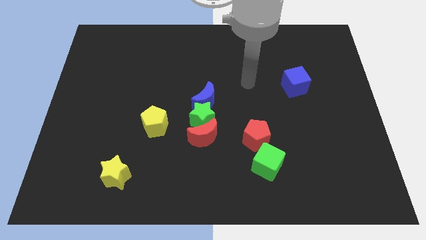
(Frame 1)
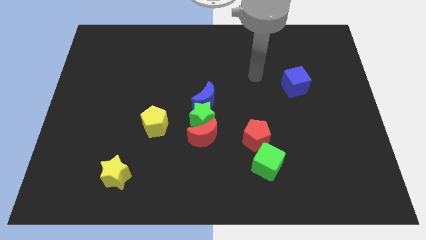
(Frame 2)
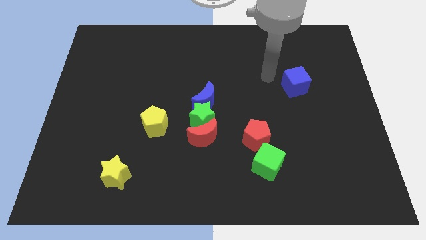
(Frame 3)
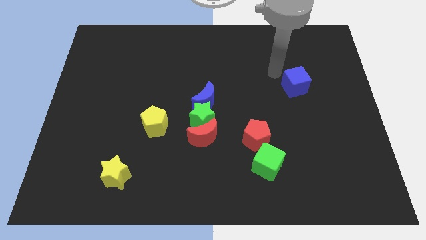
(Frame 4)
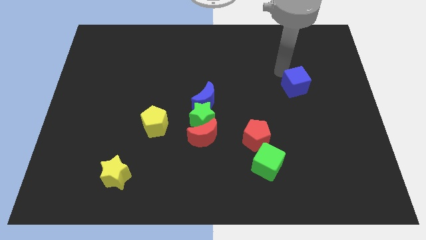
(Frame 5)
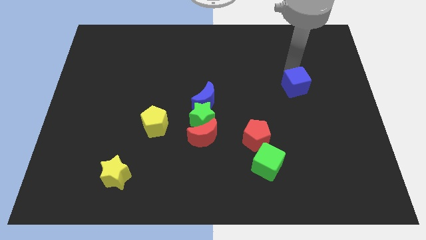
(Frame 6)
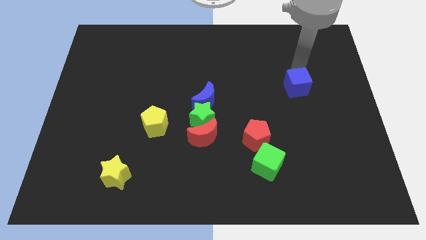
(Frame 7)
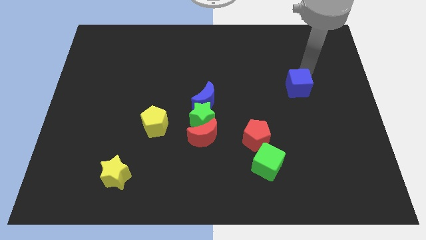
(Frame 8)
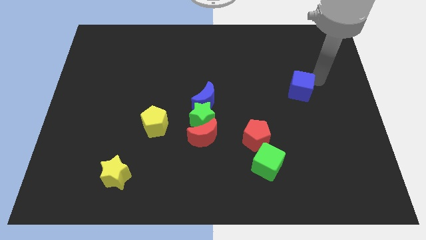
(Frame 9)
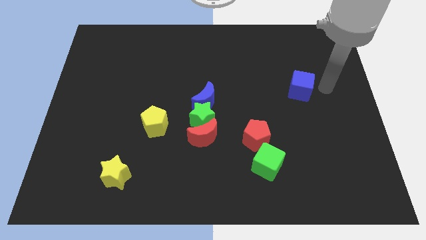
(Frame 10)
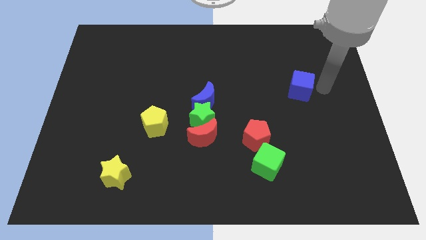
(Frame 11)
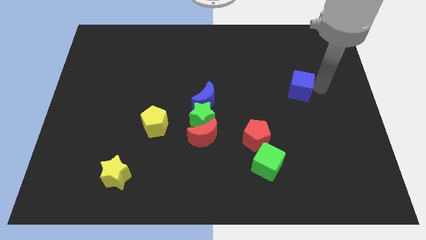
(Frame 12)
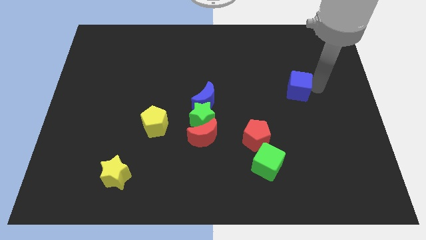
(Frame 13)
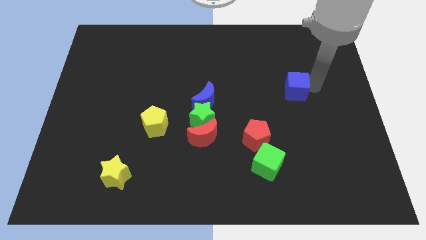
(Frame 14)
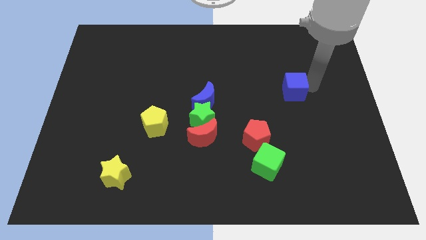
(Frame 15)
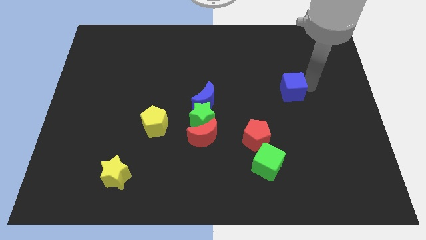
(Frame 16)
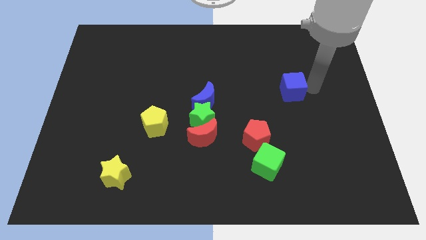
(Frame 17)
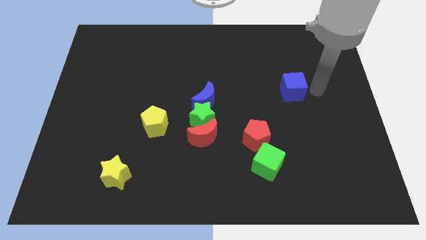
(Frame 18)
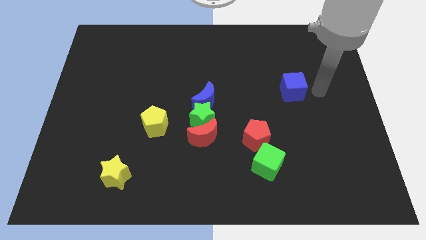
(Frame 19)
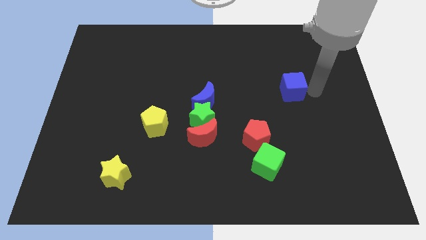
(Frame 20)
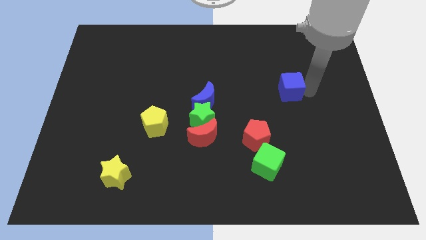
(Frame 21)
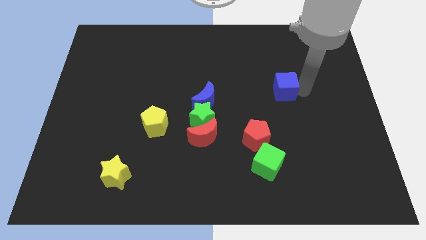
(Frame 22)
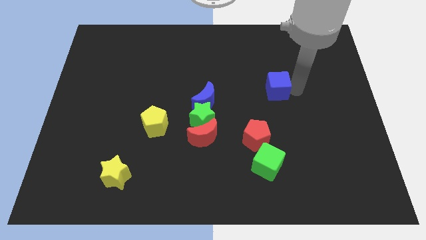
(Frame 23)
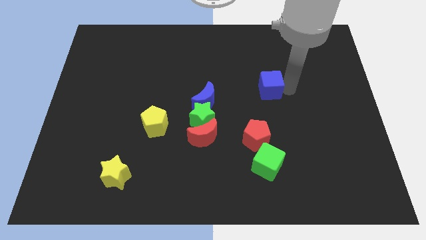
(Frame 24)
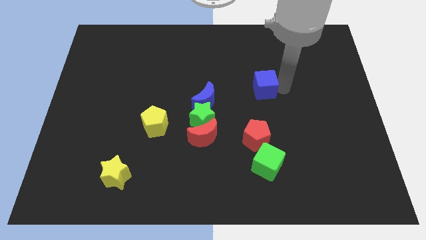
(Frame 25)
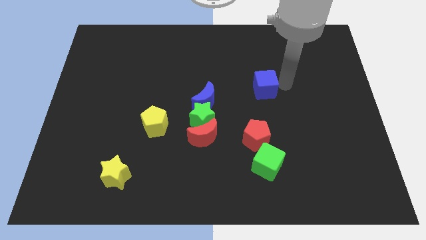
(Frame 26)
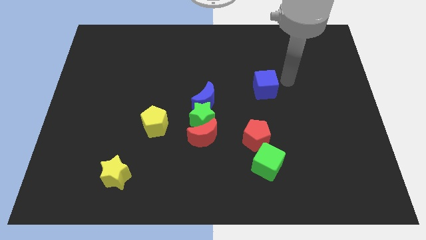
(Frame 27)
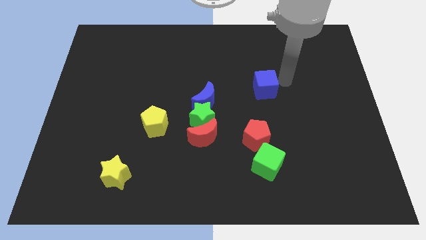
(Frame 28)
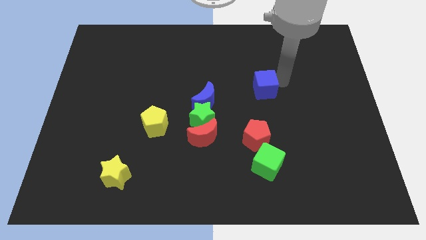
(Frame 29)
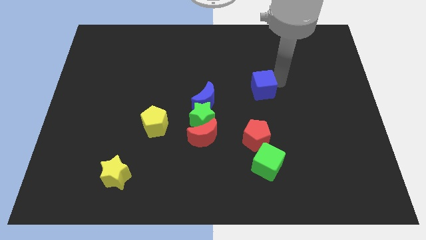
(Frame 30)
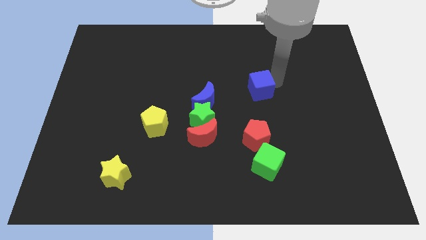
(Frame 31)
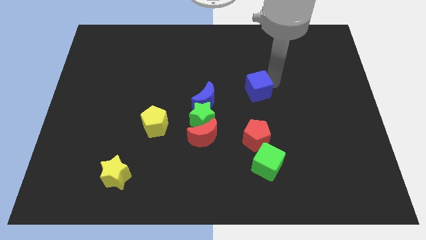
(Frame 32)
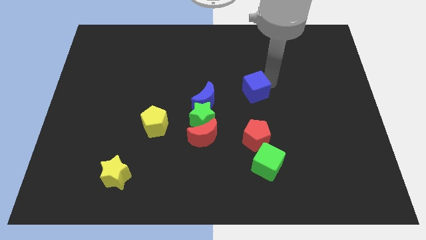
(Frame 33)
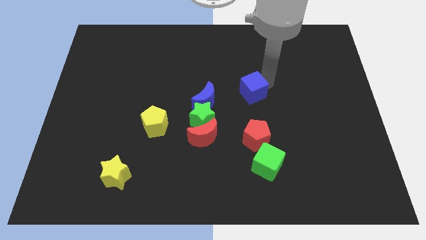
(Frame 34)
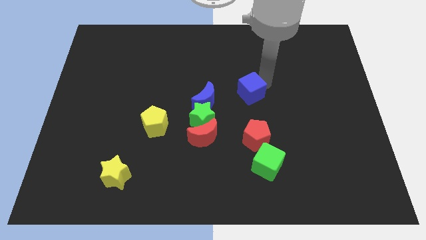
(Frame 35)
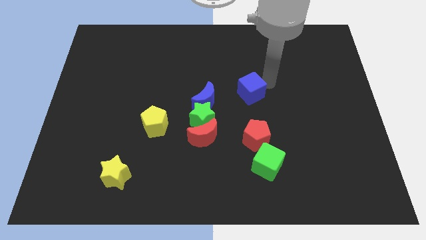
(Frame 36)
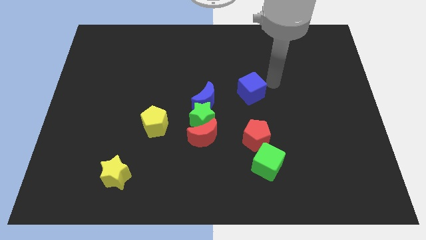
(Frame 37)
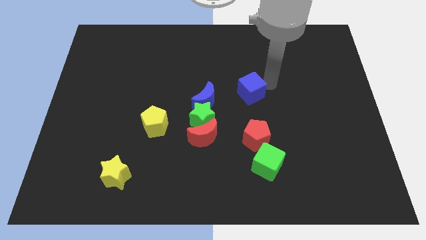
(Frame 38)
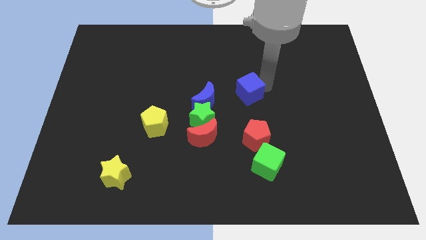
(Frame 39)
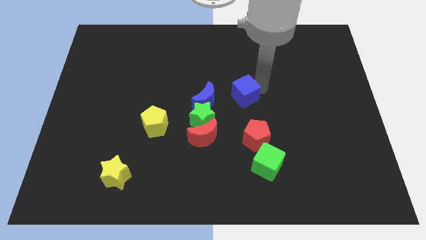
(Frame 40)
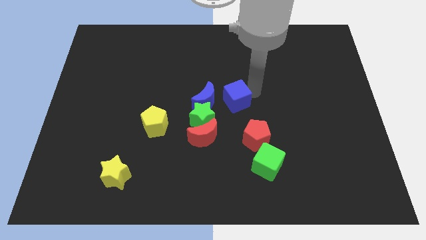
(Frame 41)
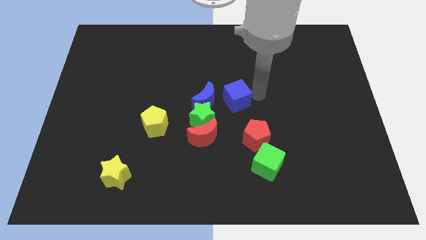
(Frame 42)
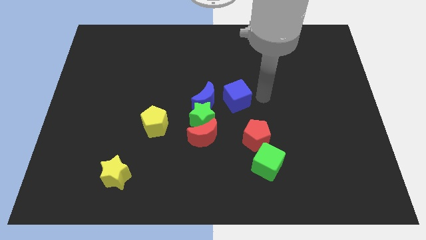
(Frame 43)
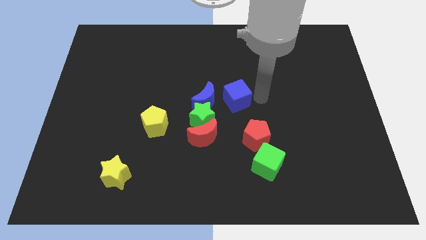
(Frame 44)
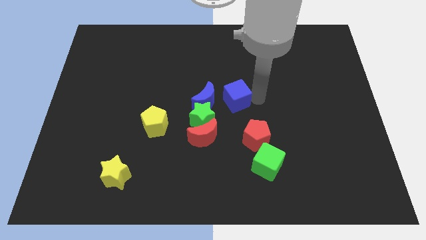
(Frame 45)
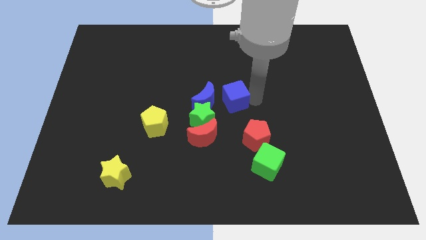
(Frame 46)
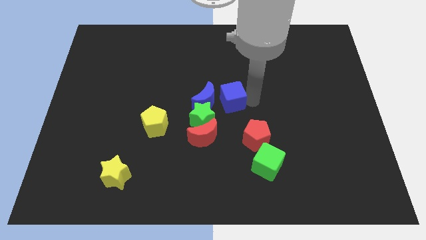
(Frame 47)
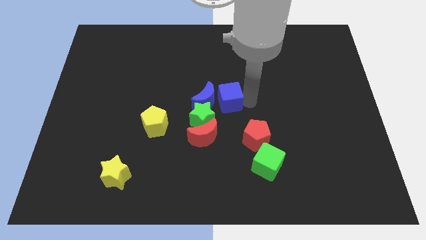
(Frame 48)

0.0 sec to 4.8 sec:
push the blue cube close to the blue moon

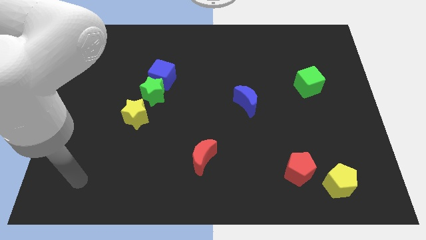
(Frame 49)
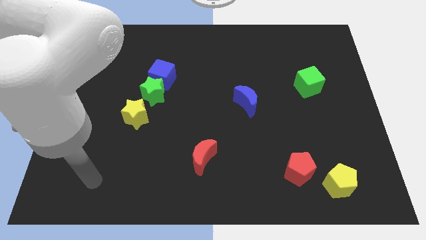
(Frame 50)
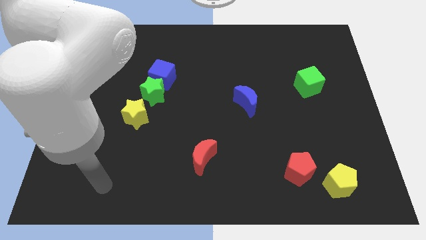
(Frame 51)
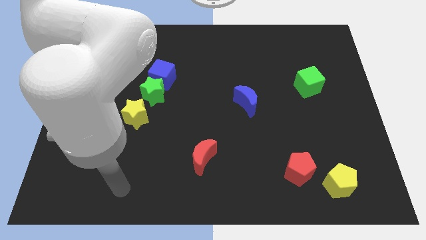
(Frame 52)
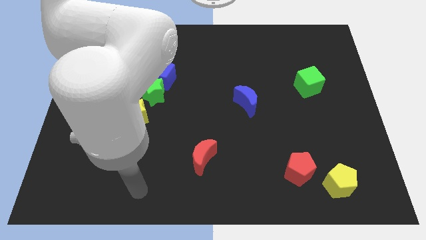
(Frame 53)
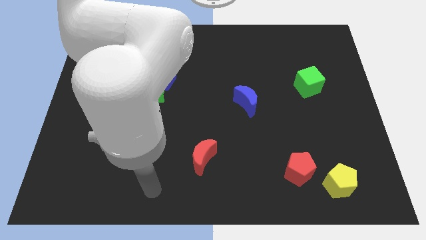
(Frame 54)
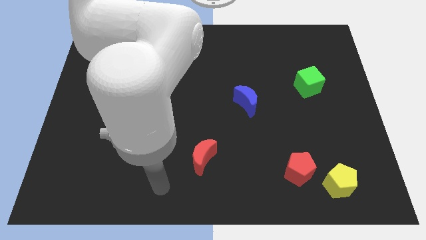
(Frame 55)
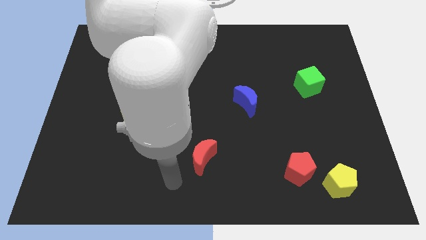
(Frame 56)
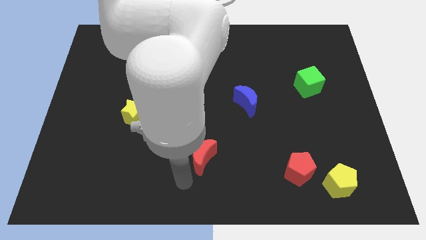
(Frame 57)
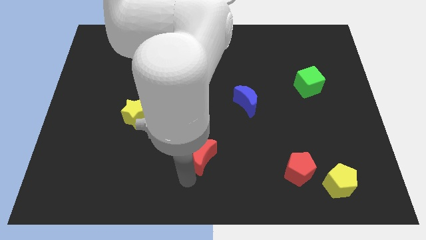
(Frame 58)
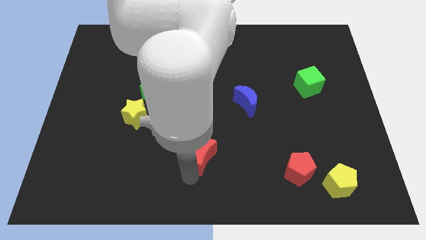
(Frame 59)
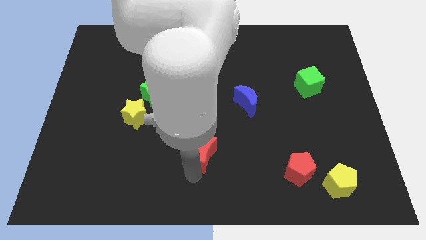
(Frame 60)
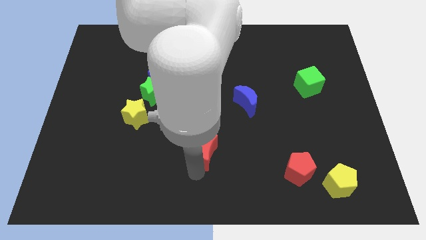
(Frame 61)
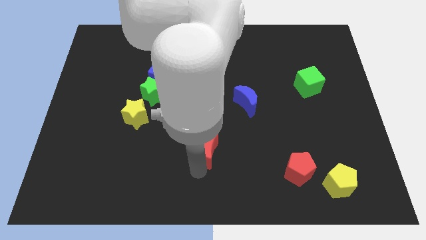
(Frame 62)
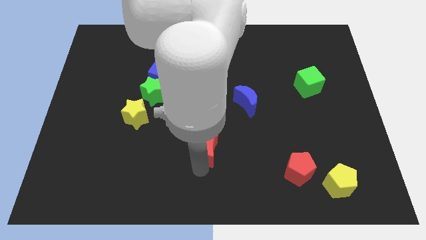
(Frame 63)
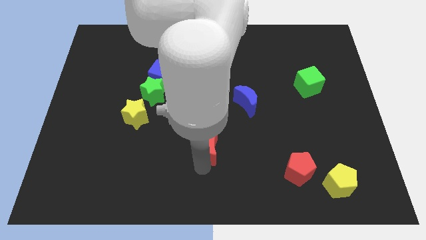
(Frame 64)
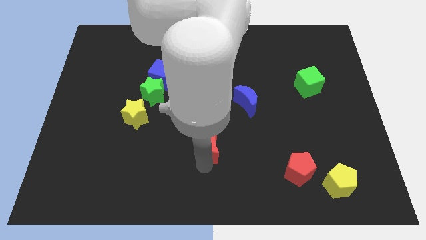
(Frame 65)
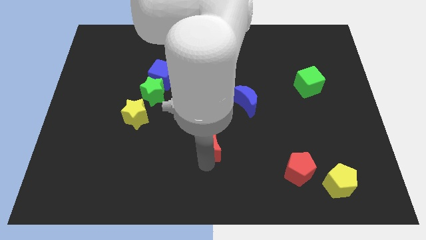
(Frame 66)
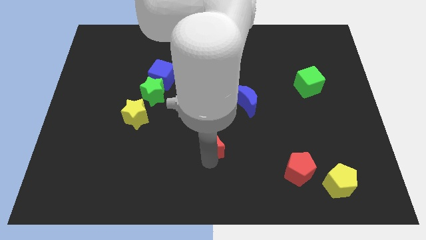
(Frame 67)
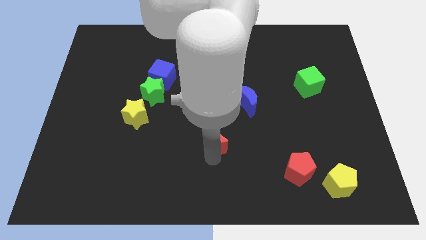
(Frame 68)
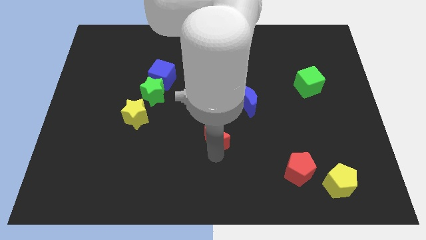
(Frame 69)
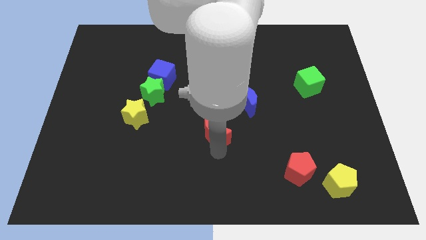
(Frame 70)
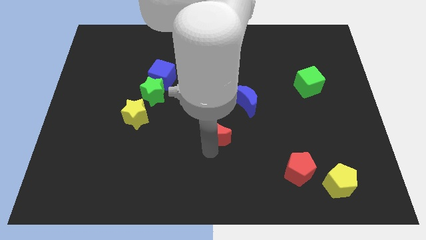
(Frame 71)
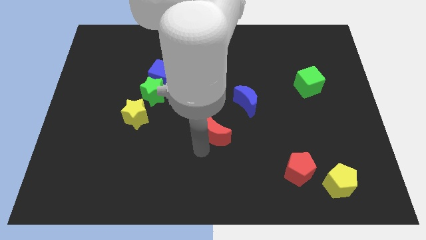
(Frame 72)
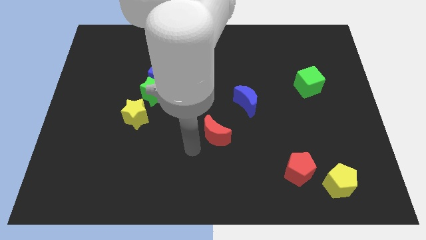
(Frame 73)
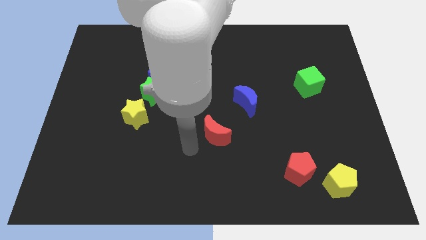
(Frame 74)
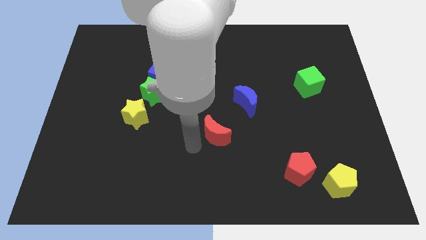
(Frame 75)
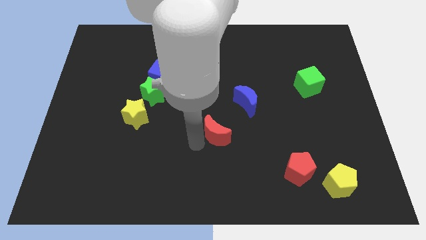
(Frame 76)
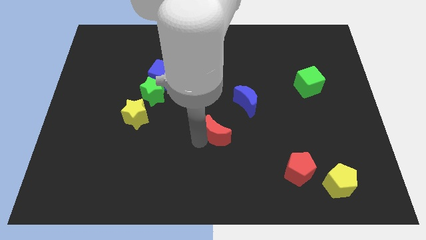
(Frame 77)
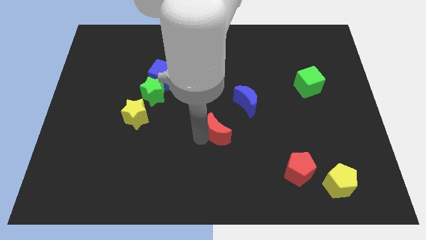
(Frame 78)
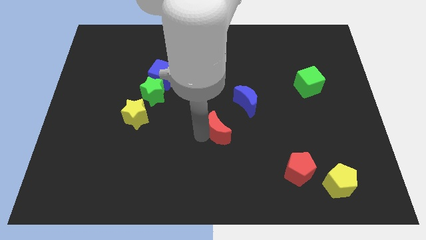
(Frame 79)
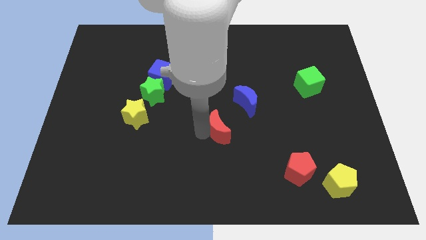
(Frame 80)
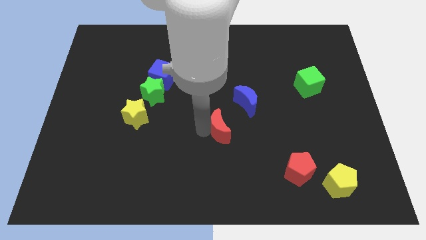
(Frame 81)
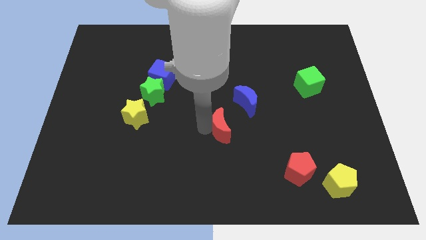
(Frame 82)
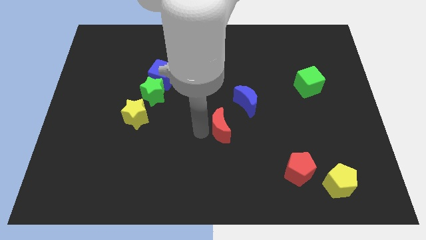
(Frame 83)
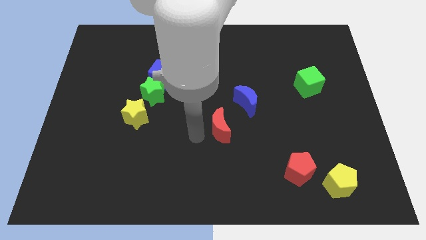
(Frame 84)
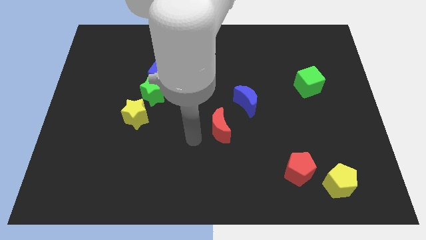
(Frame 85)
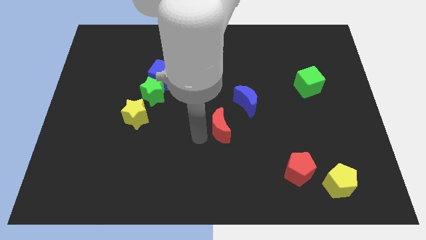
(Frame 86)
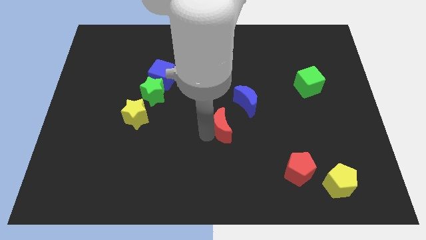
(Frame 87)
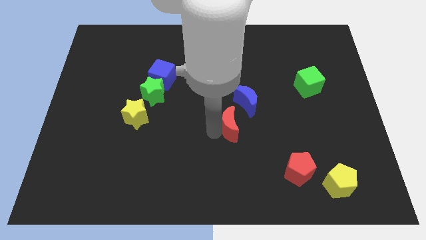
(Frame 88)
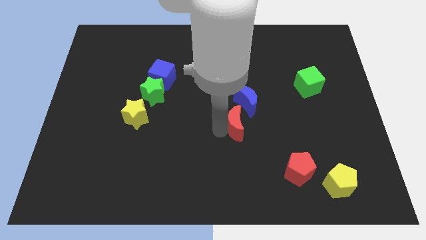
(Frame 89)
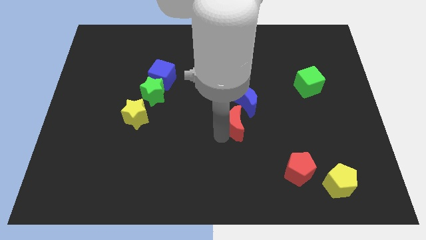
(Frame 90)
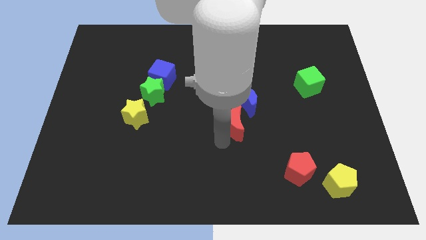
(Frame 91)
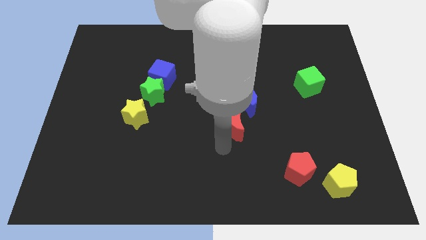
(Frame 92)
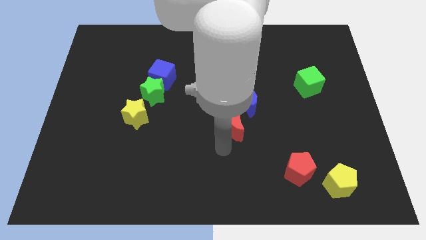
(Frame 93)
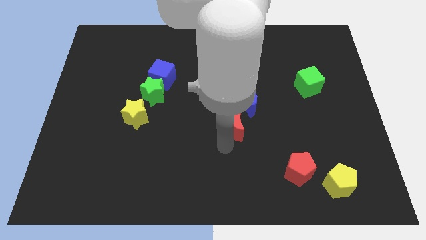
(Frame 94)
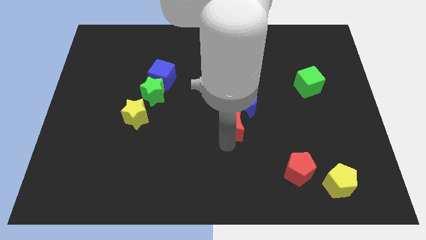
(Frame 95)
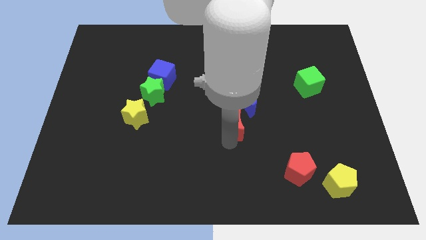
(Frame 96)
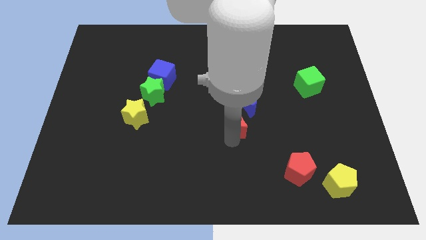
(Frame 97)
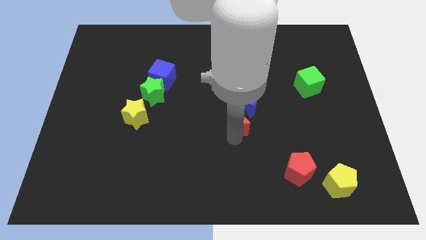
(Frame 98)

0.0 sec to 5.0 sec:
slide the red moon to the blue moon
